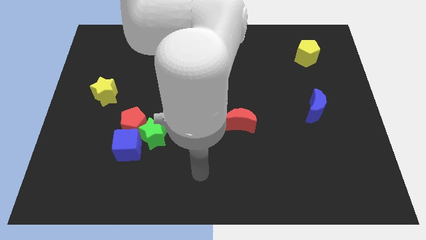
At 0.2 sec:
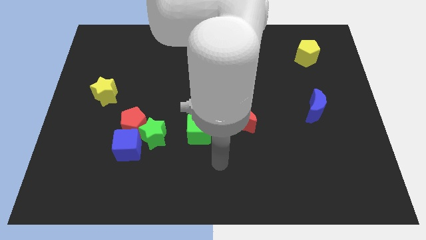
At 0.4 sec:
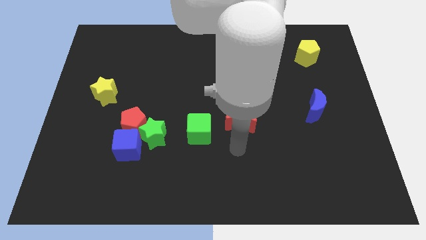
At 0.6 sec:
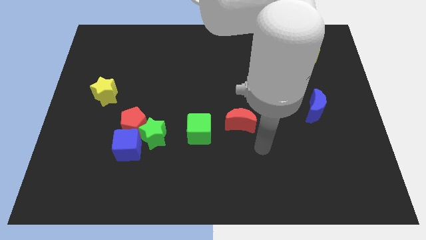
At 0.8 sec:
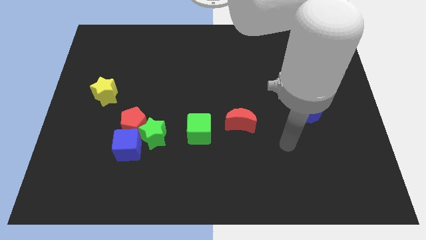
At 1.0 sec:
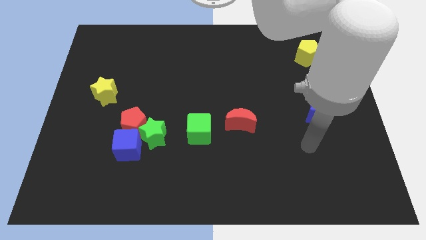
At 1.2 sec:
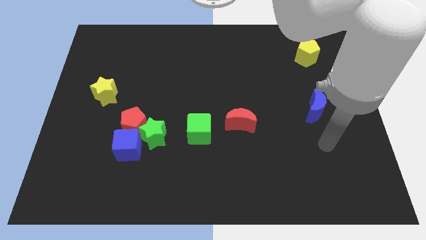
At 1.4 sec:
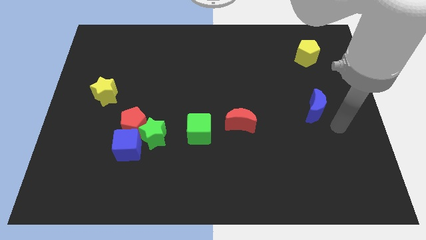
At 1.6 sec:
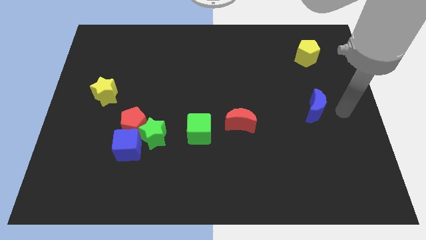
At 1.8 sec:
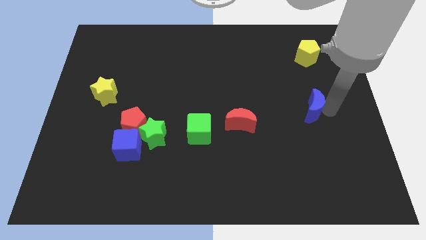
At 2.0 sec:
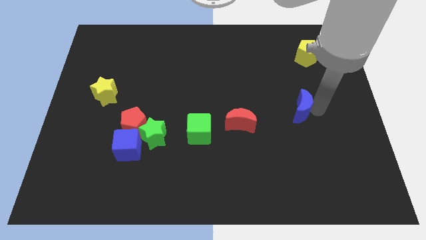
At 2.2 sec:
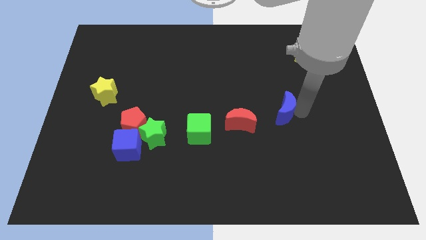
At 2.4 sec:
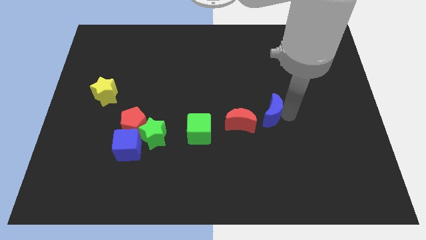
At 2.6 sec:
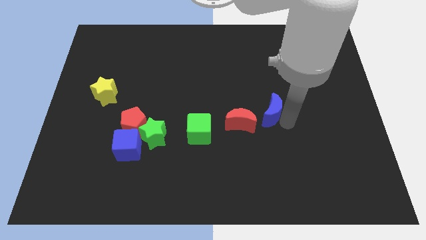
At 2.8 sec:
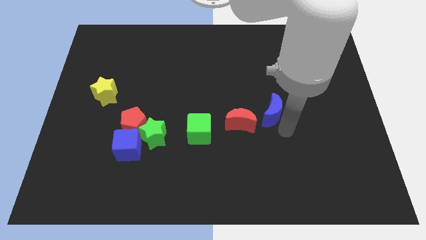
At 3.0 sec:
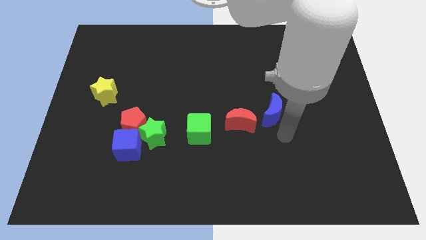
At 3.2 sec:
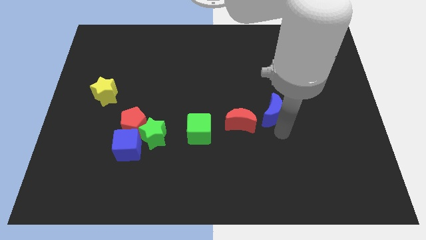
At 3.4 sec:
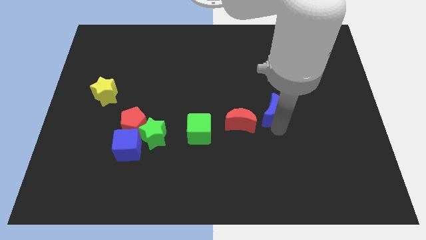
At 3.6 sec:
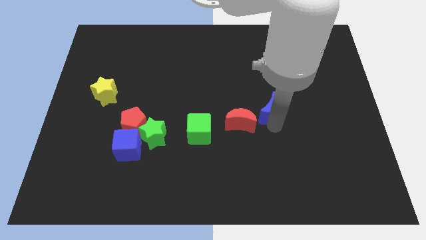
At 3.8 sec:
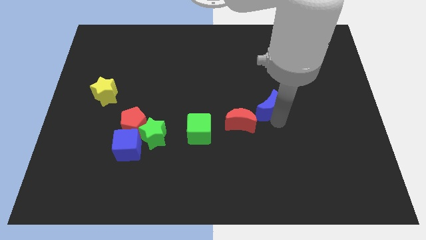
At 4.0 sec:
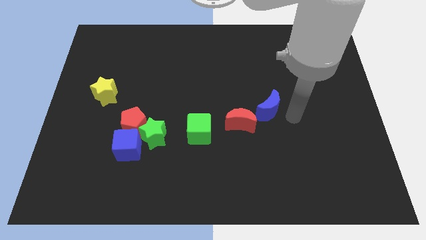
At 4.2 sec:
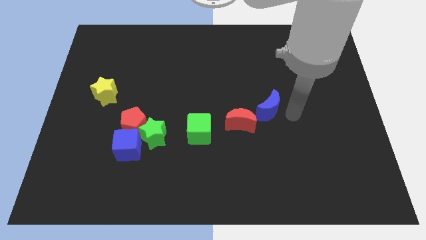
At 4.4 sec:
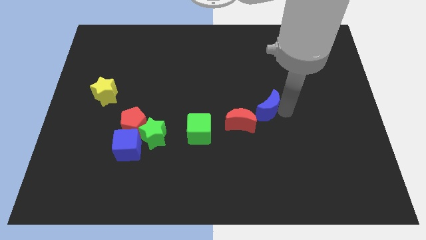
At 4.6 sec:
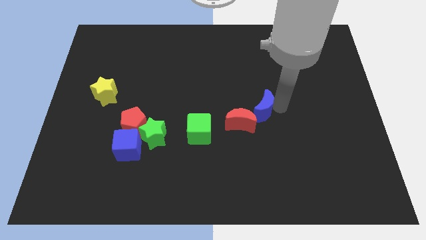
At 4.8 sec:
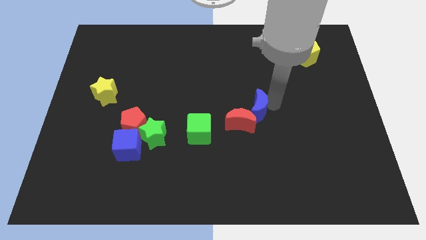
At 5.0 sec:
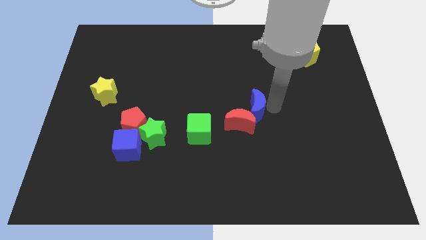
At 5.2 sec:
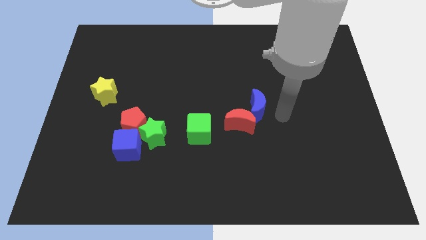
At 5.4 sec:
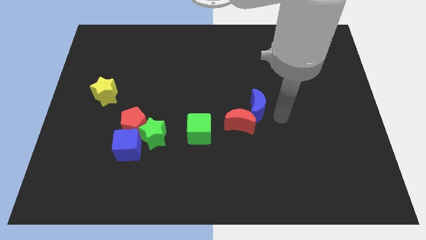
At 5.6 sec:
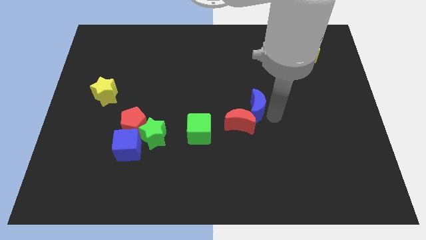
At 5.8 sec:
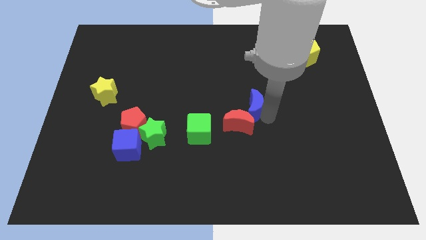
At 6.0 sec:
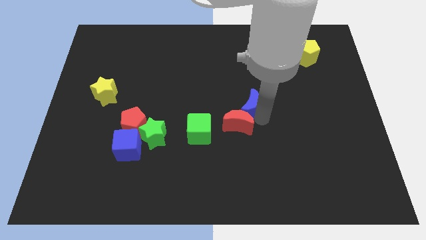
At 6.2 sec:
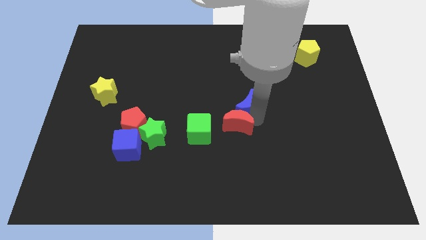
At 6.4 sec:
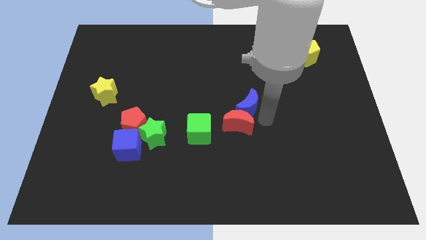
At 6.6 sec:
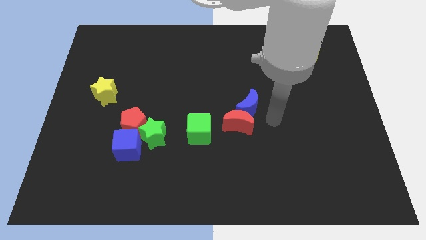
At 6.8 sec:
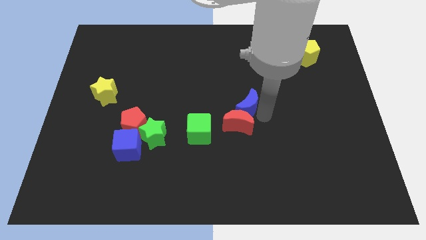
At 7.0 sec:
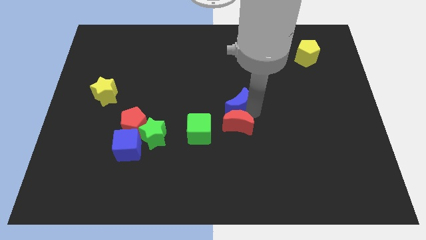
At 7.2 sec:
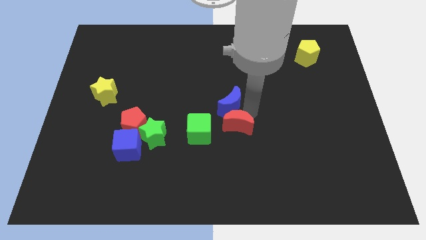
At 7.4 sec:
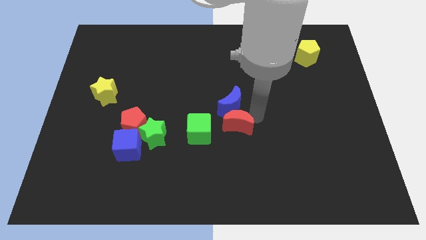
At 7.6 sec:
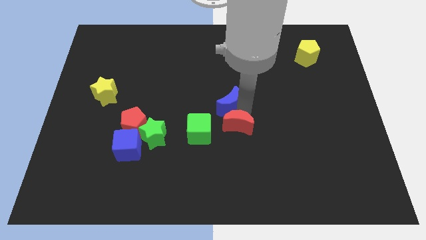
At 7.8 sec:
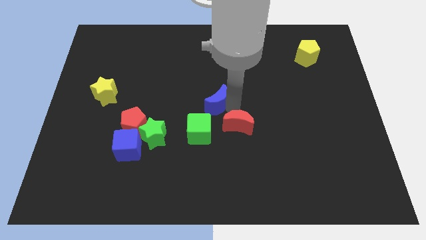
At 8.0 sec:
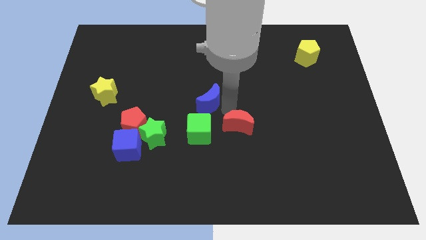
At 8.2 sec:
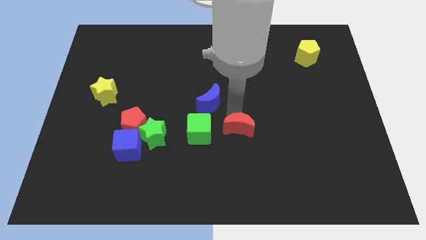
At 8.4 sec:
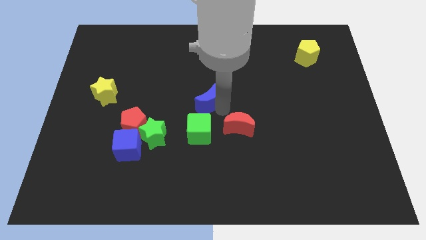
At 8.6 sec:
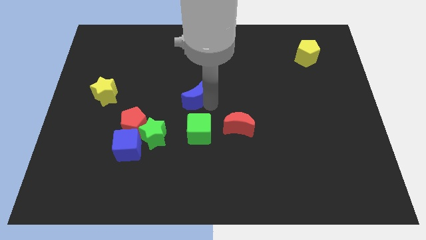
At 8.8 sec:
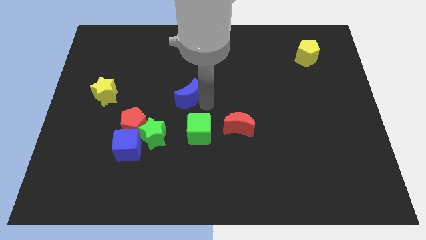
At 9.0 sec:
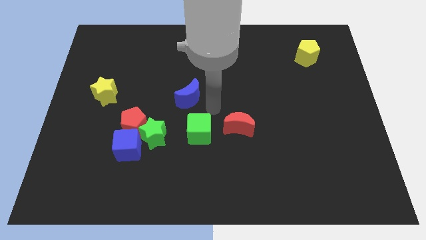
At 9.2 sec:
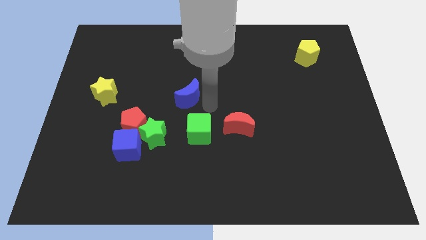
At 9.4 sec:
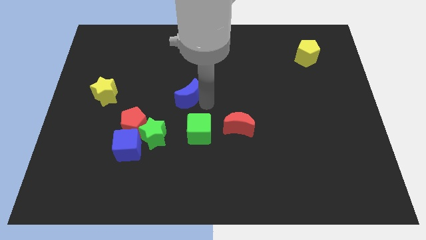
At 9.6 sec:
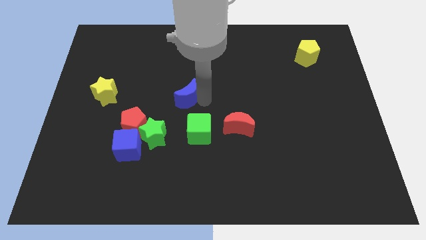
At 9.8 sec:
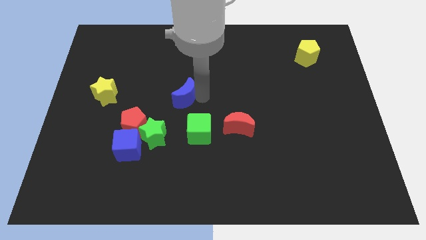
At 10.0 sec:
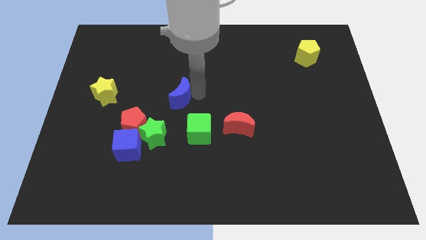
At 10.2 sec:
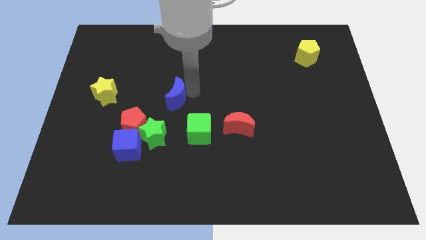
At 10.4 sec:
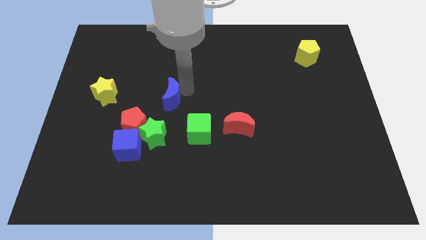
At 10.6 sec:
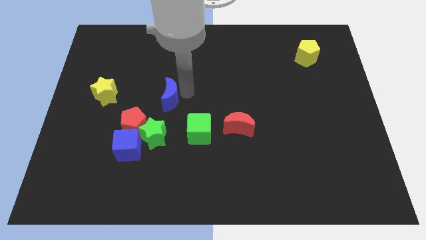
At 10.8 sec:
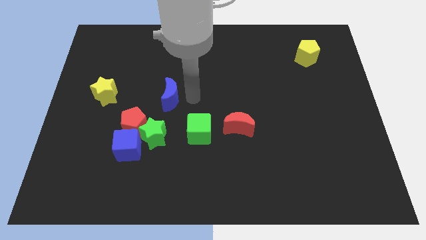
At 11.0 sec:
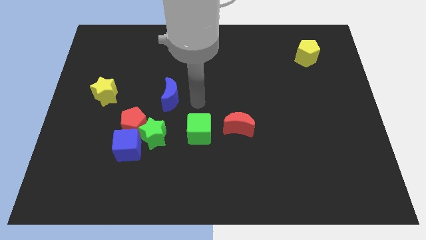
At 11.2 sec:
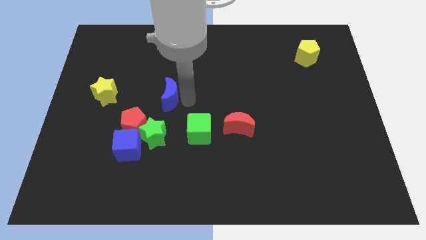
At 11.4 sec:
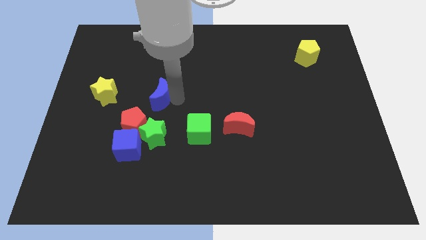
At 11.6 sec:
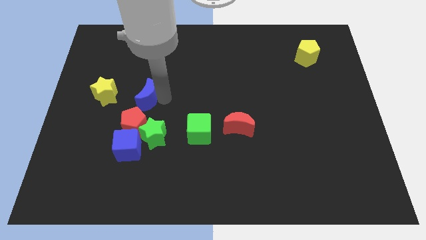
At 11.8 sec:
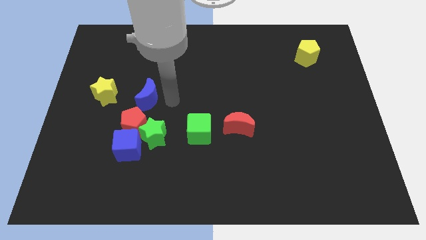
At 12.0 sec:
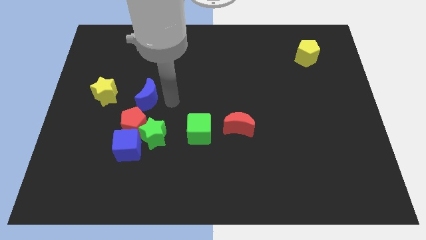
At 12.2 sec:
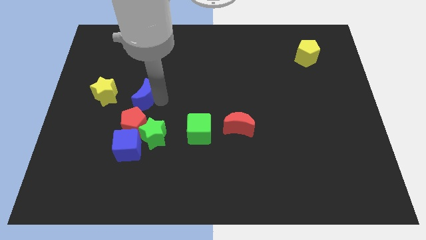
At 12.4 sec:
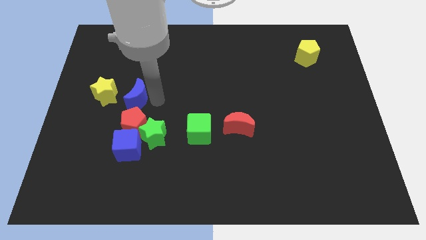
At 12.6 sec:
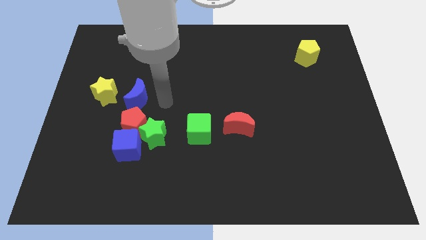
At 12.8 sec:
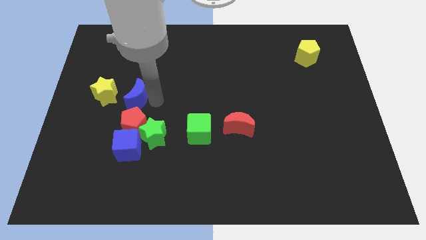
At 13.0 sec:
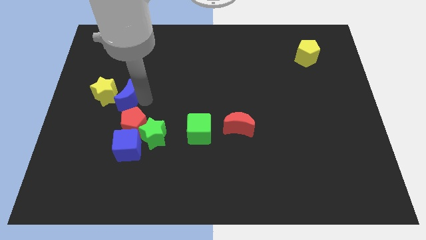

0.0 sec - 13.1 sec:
put the blue moon close to the yellow star
